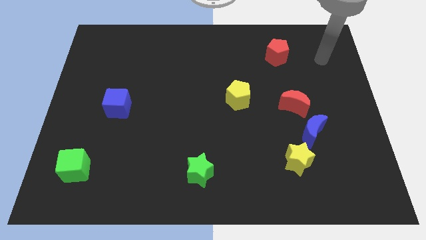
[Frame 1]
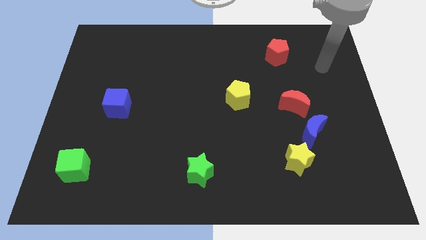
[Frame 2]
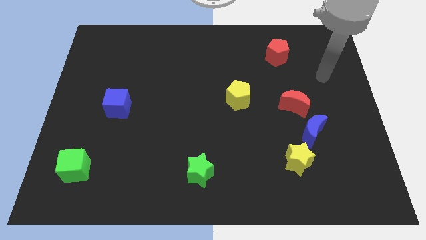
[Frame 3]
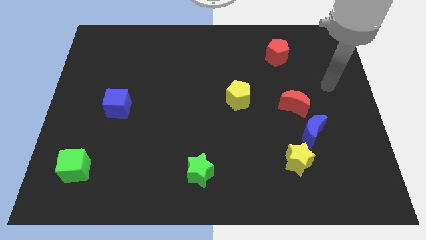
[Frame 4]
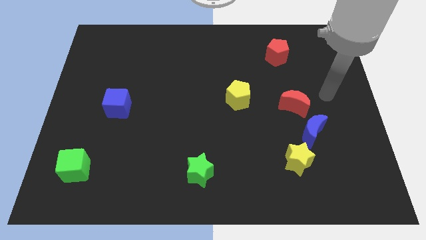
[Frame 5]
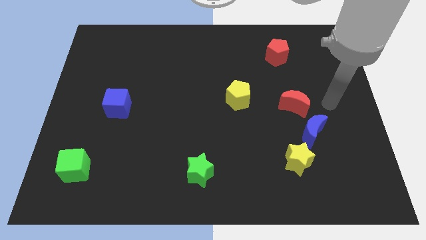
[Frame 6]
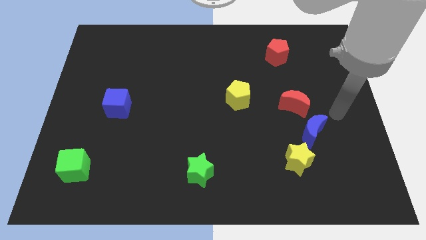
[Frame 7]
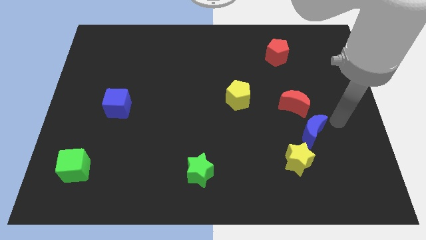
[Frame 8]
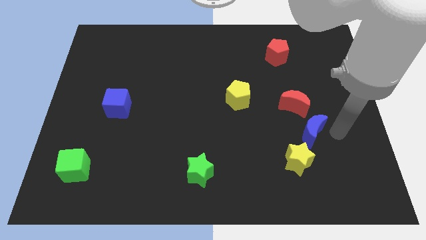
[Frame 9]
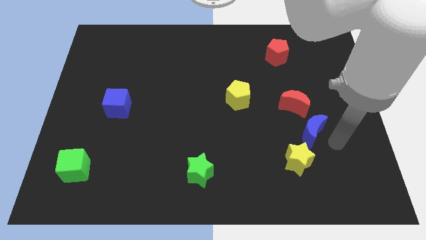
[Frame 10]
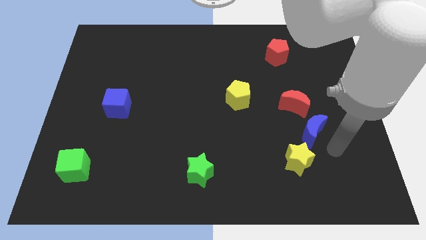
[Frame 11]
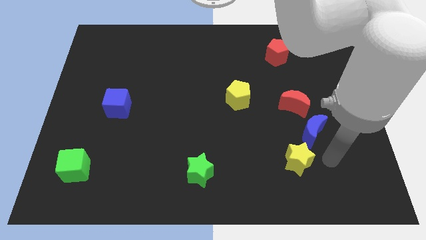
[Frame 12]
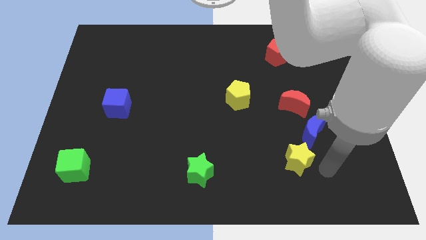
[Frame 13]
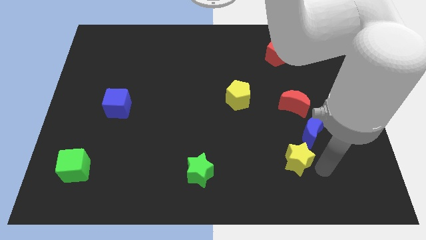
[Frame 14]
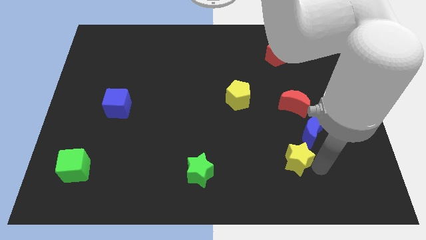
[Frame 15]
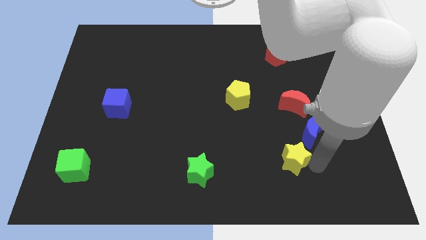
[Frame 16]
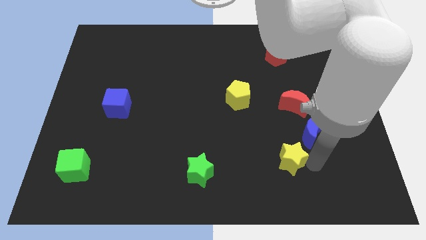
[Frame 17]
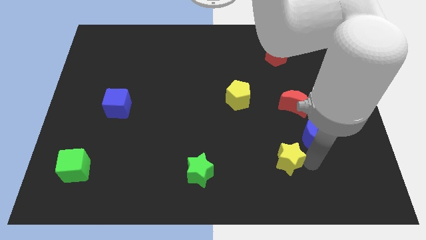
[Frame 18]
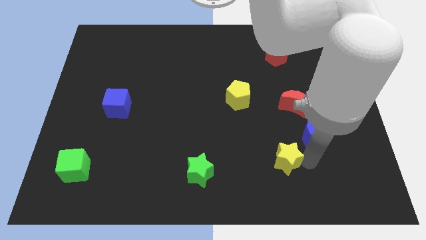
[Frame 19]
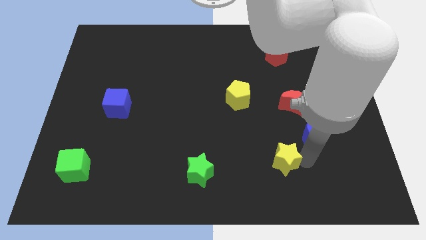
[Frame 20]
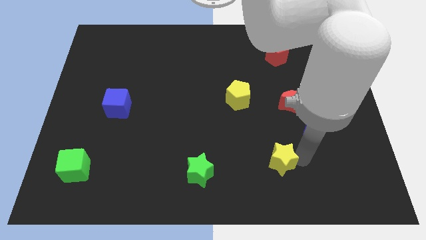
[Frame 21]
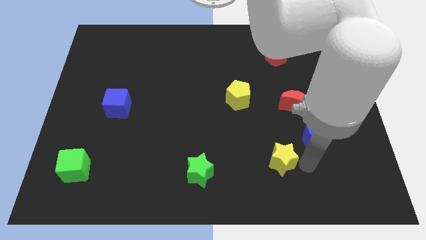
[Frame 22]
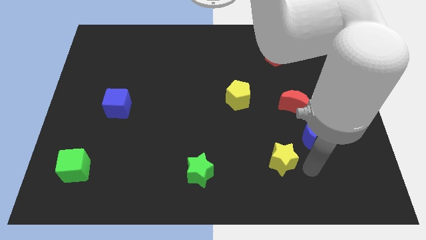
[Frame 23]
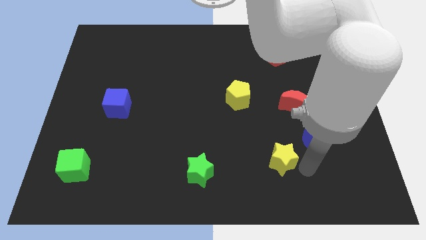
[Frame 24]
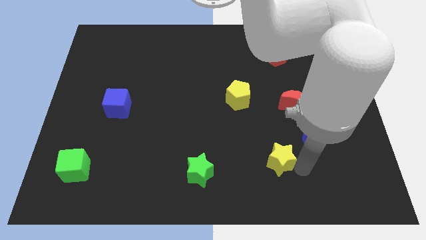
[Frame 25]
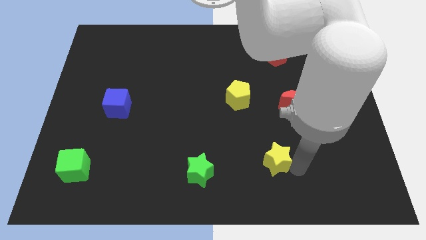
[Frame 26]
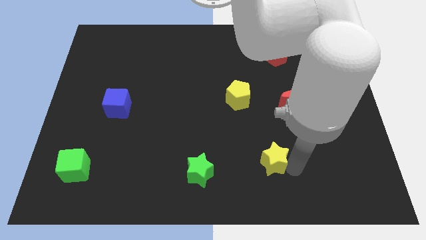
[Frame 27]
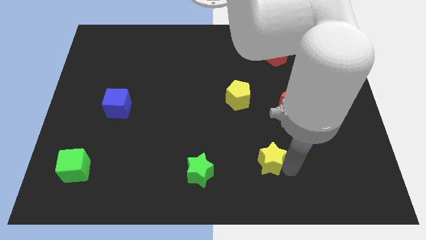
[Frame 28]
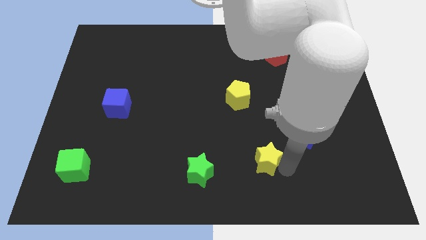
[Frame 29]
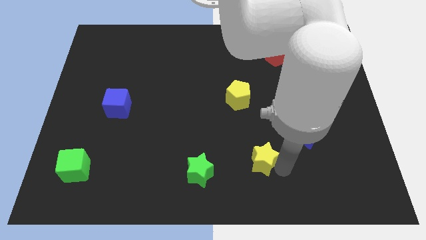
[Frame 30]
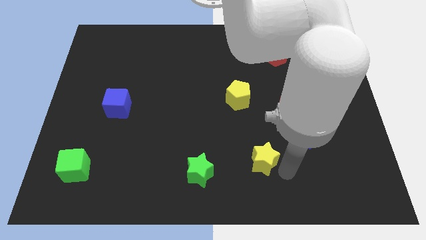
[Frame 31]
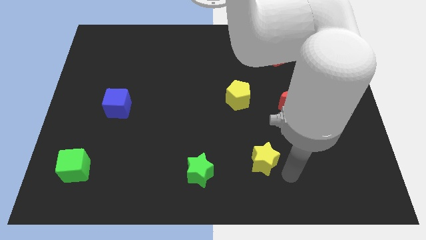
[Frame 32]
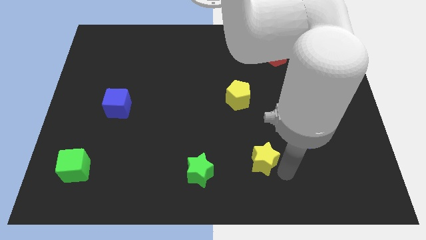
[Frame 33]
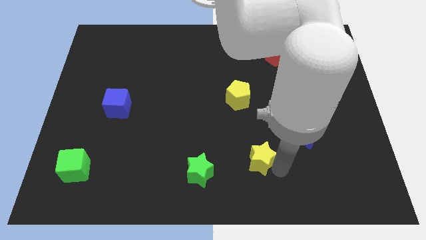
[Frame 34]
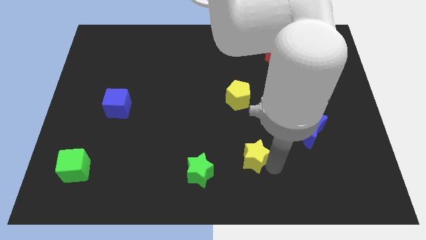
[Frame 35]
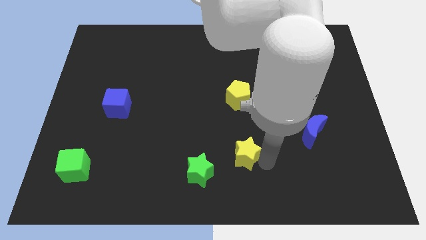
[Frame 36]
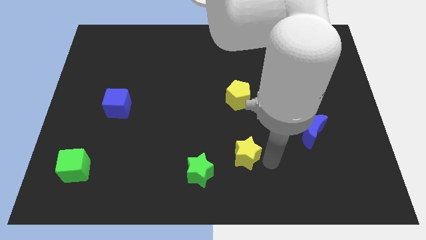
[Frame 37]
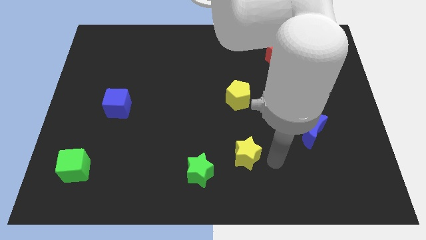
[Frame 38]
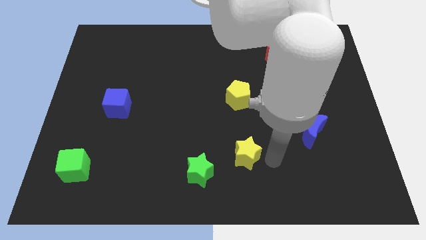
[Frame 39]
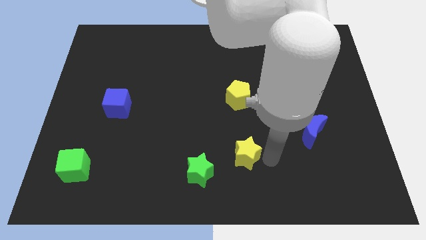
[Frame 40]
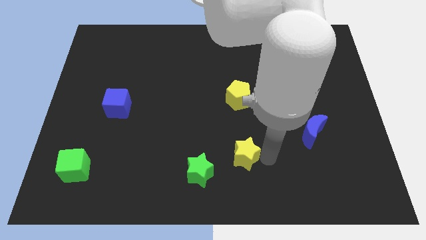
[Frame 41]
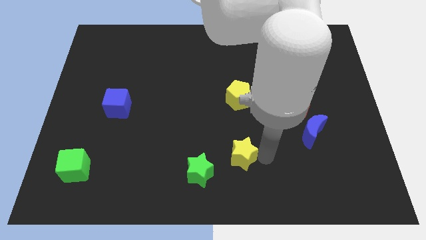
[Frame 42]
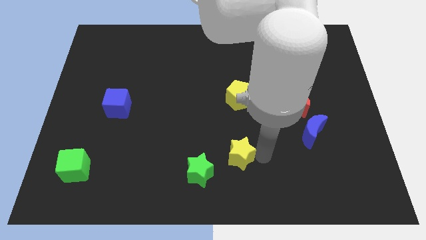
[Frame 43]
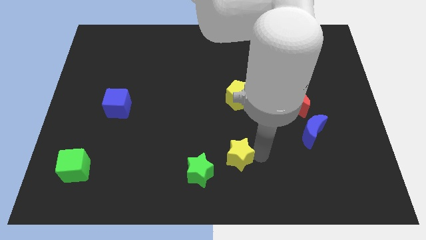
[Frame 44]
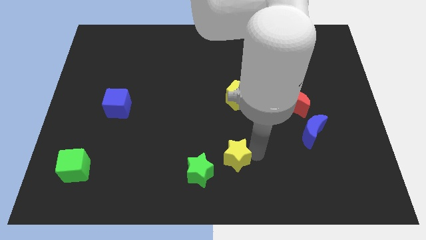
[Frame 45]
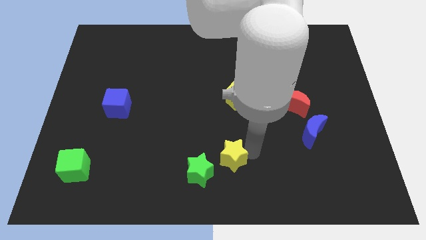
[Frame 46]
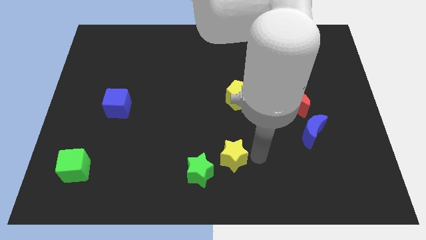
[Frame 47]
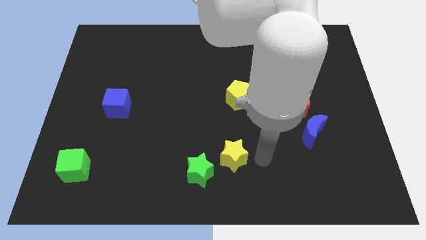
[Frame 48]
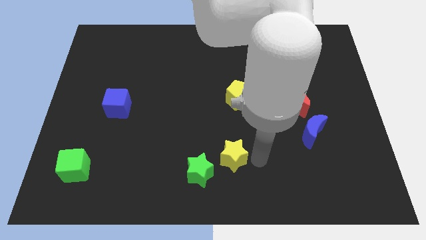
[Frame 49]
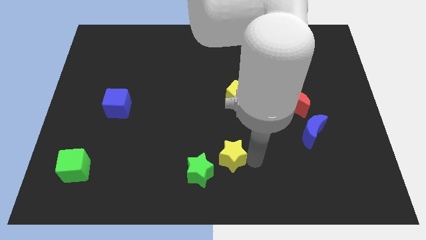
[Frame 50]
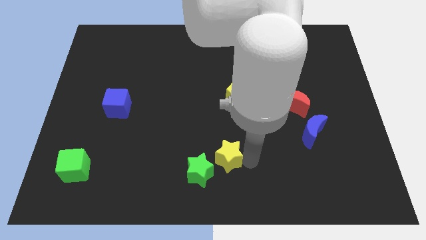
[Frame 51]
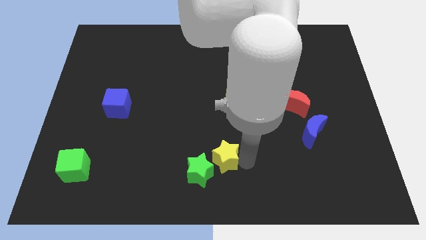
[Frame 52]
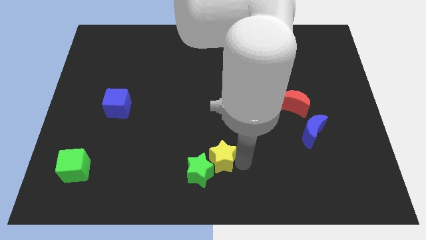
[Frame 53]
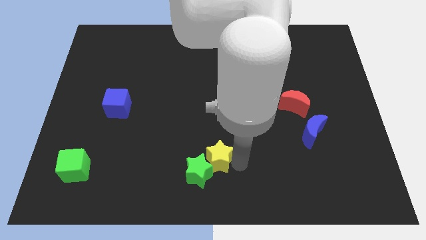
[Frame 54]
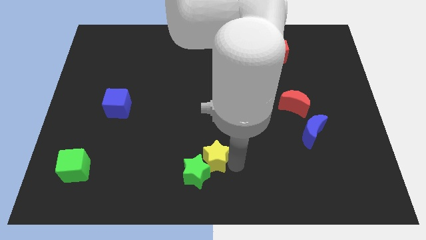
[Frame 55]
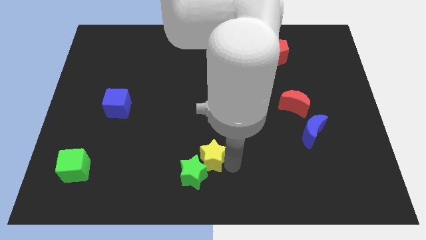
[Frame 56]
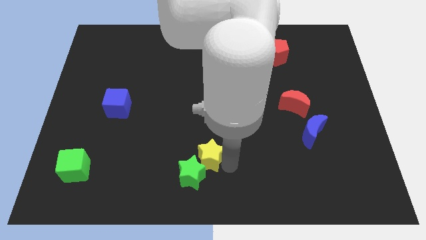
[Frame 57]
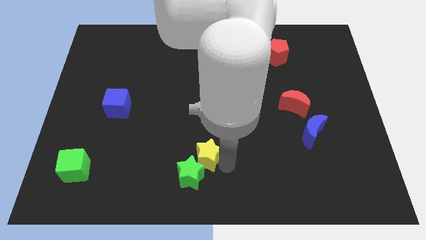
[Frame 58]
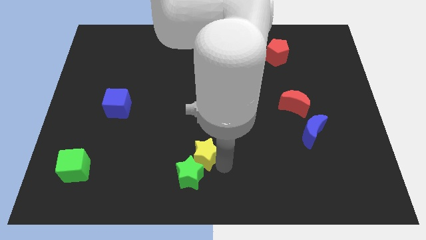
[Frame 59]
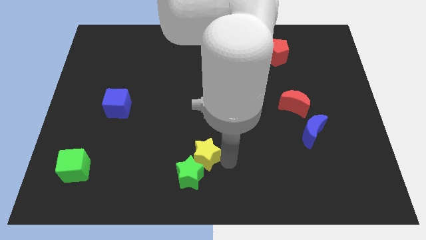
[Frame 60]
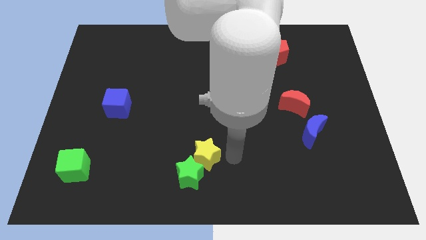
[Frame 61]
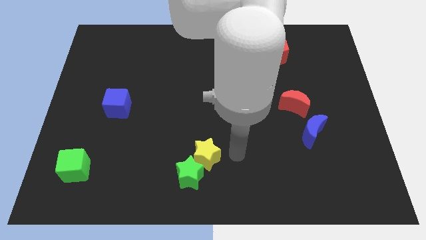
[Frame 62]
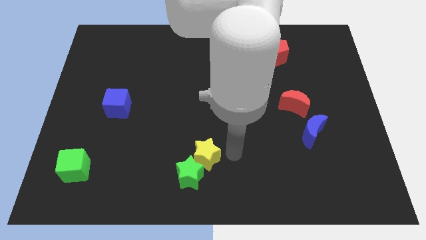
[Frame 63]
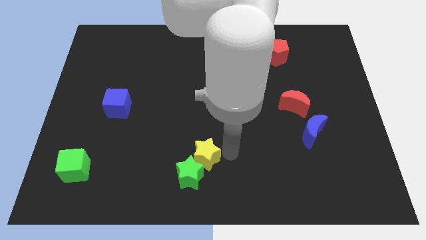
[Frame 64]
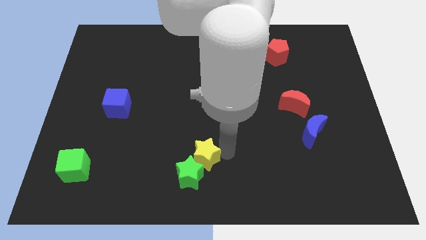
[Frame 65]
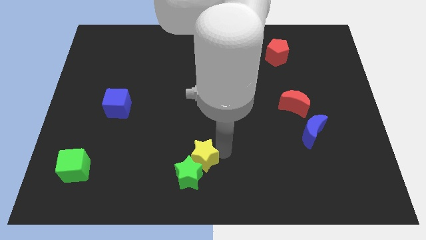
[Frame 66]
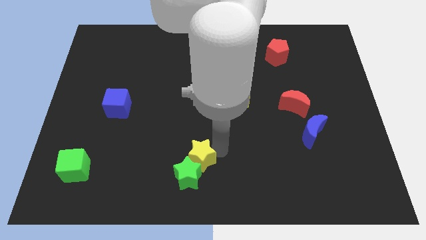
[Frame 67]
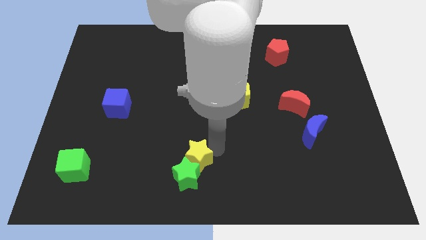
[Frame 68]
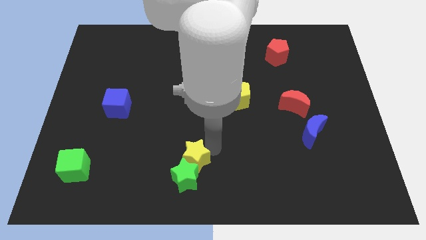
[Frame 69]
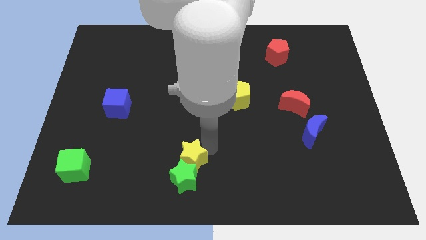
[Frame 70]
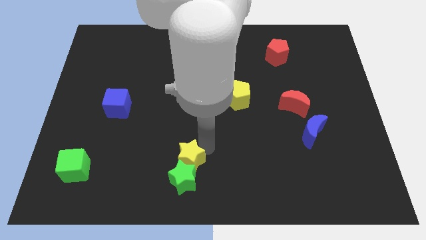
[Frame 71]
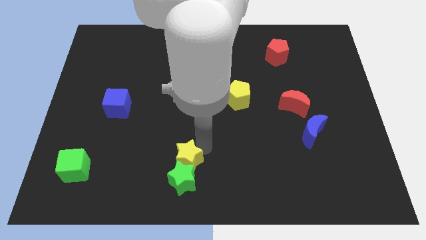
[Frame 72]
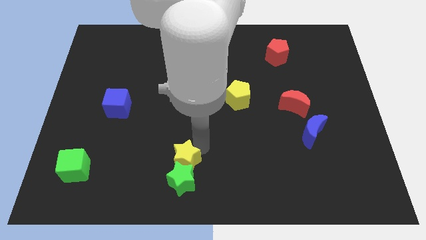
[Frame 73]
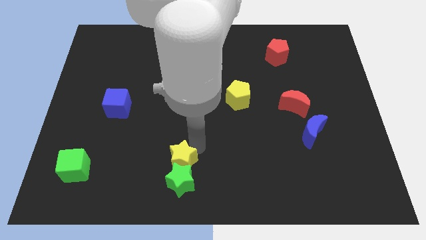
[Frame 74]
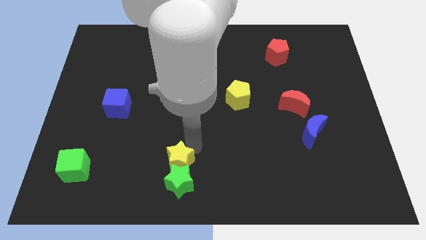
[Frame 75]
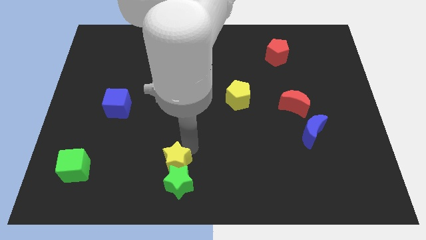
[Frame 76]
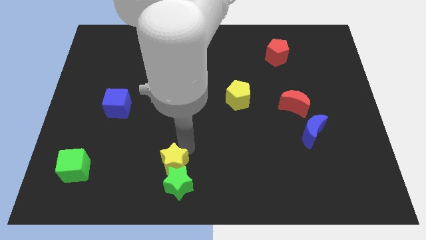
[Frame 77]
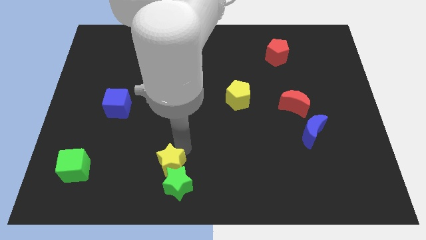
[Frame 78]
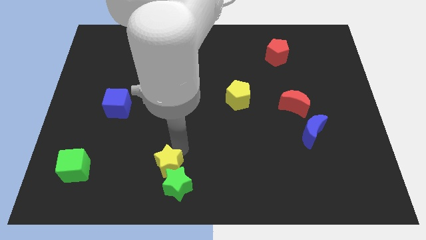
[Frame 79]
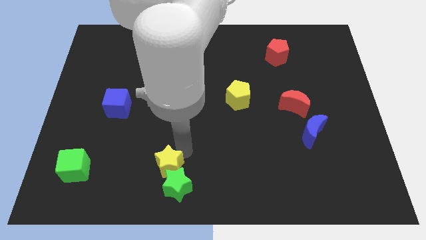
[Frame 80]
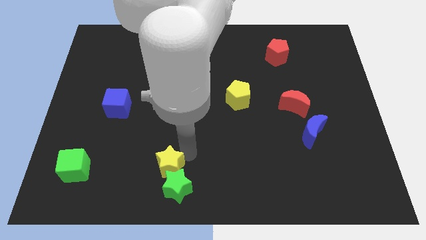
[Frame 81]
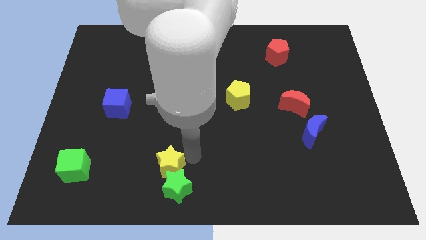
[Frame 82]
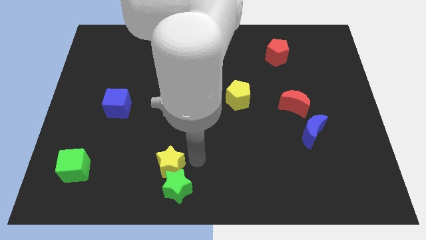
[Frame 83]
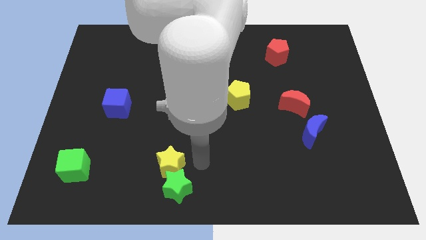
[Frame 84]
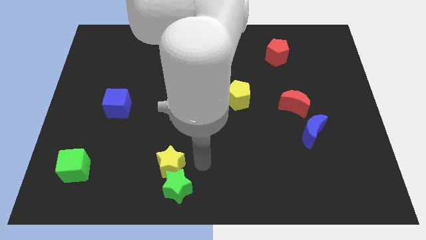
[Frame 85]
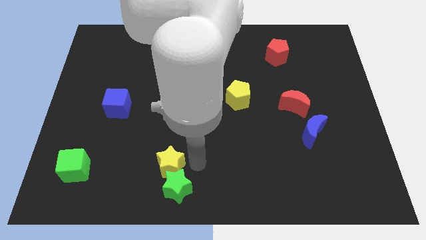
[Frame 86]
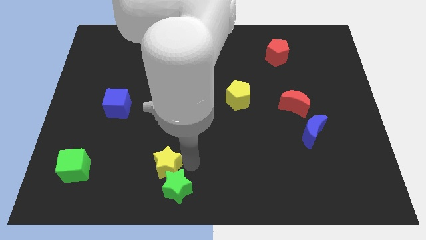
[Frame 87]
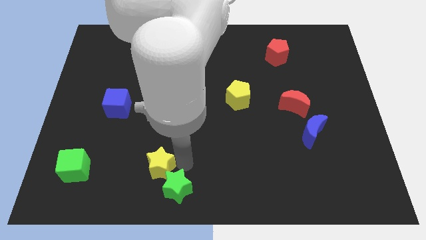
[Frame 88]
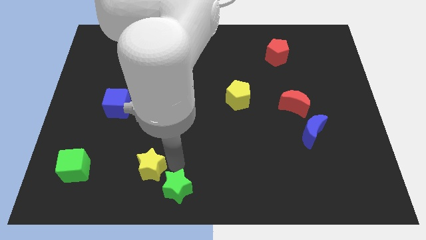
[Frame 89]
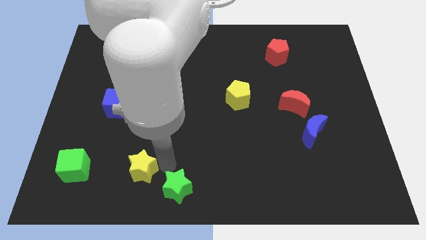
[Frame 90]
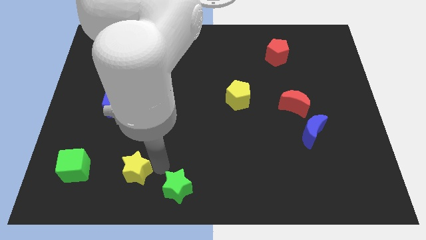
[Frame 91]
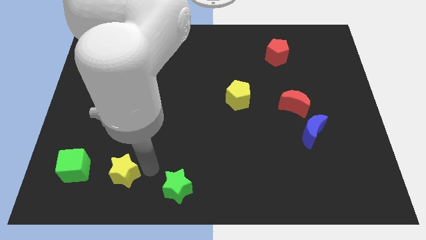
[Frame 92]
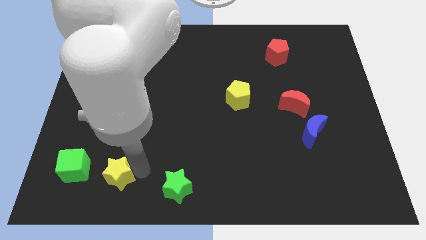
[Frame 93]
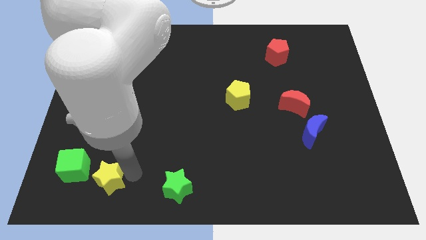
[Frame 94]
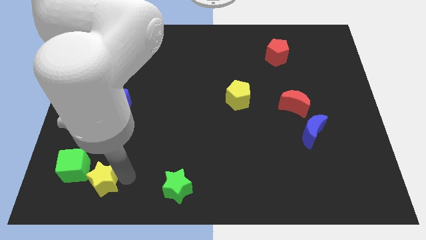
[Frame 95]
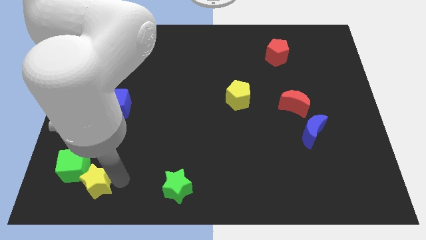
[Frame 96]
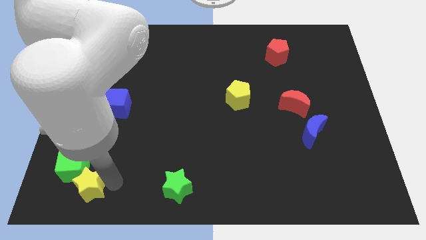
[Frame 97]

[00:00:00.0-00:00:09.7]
put the yellow star to the green cube
